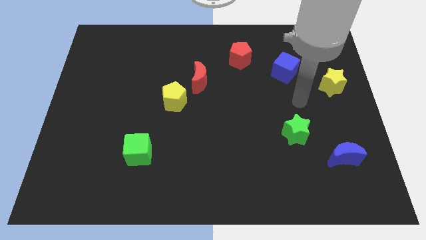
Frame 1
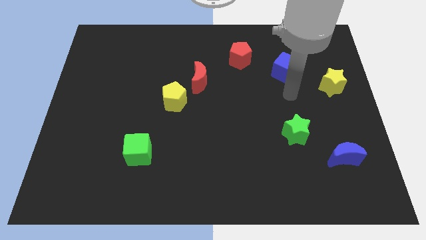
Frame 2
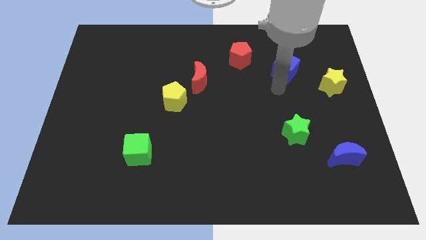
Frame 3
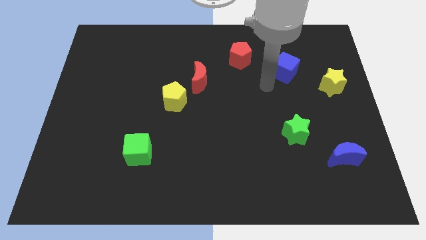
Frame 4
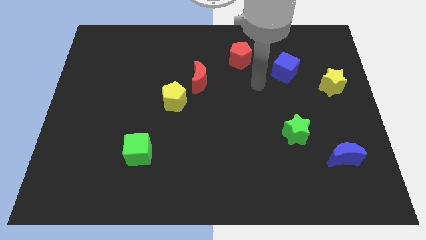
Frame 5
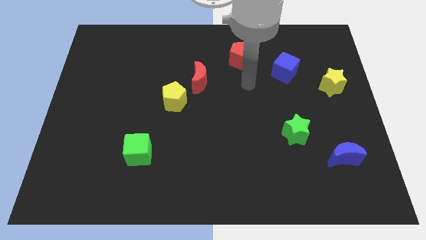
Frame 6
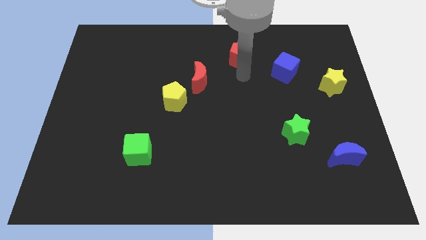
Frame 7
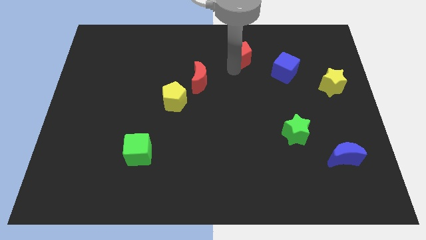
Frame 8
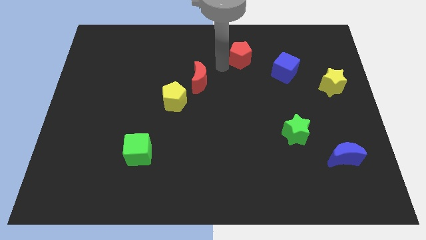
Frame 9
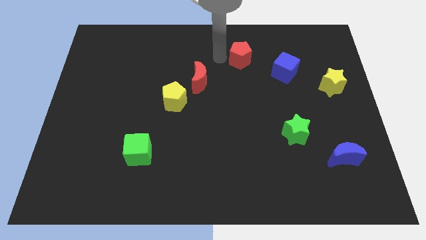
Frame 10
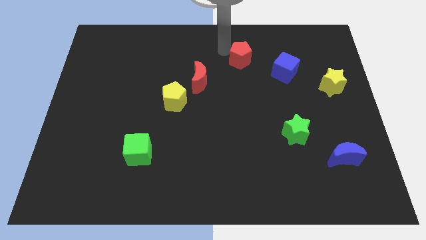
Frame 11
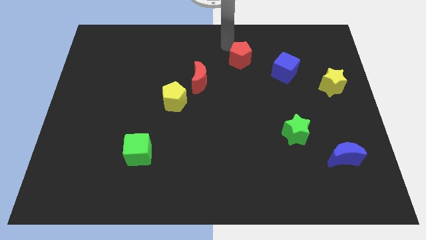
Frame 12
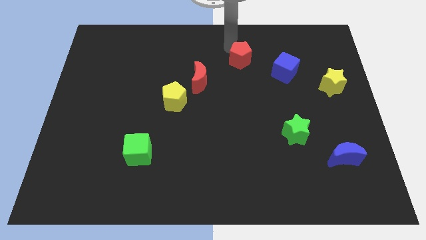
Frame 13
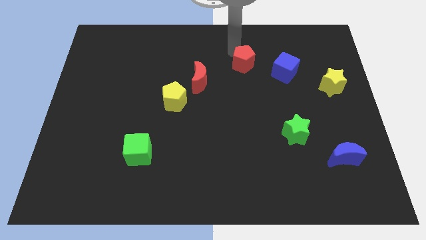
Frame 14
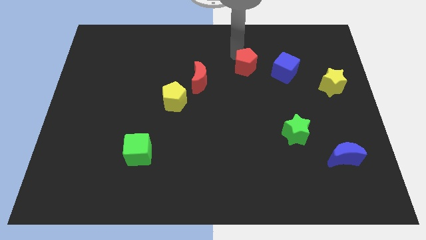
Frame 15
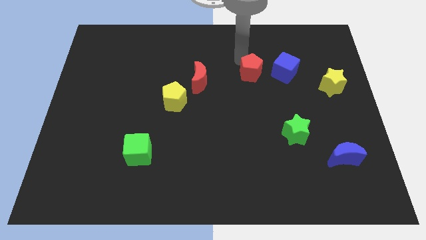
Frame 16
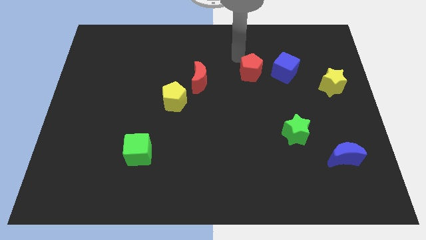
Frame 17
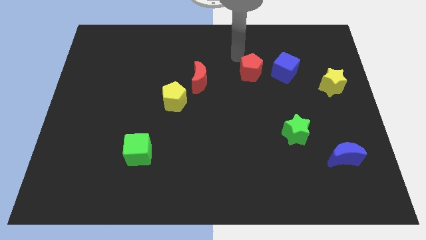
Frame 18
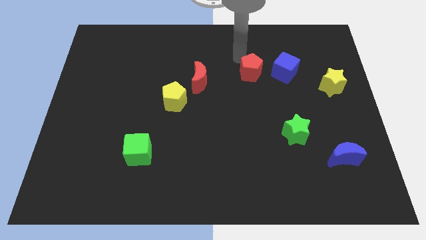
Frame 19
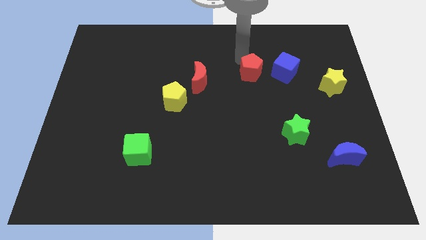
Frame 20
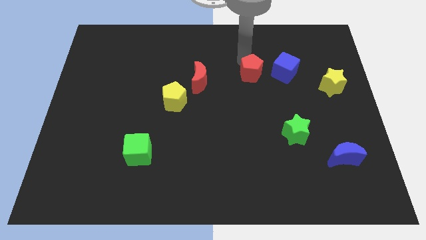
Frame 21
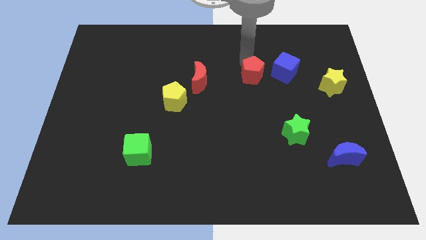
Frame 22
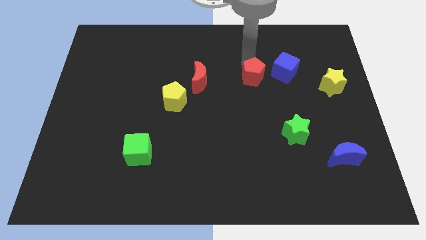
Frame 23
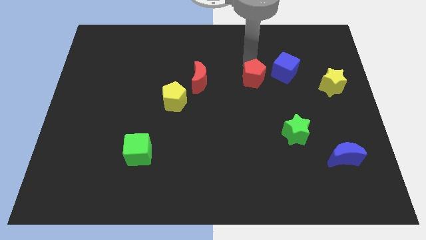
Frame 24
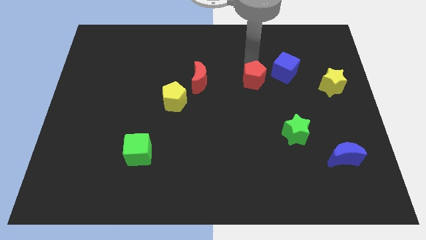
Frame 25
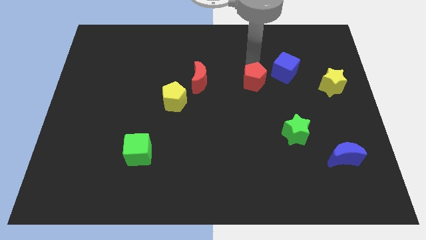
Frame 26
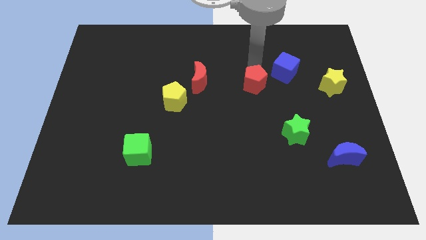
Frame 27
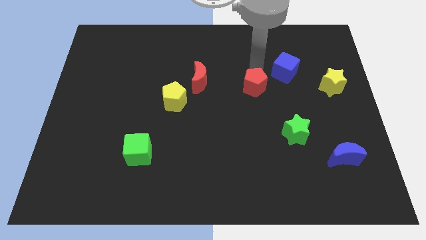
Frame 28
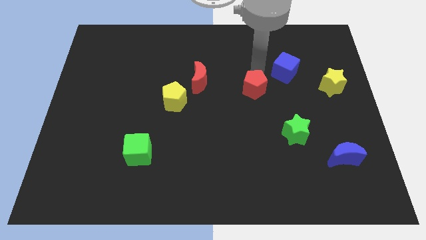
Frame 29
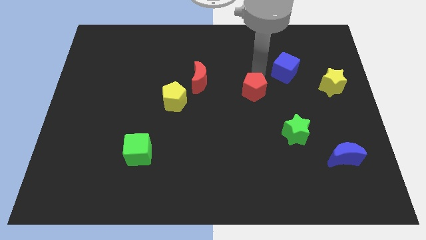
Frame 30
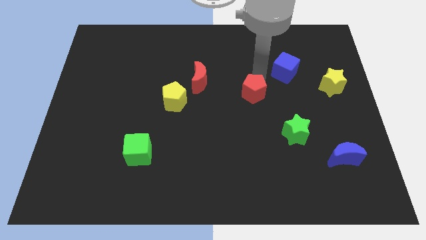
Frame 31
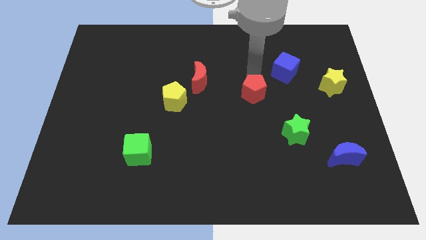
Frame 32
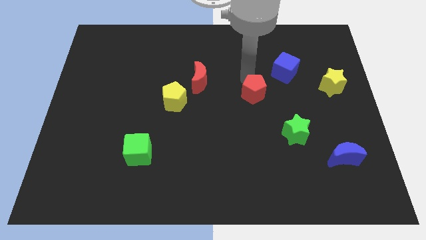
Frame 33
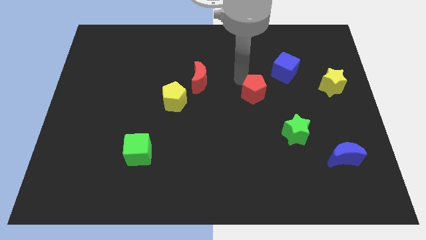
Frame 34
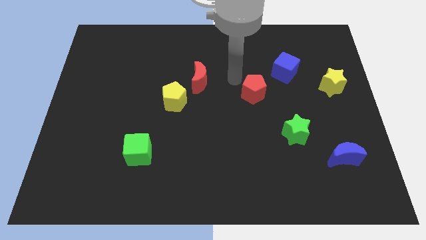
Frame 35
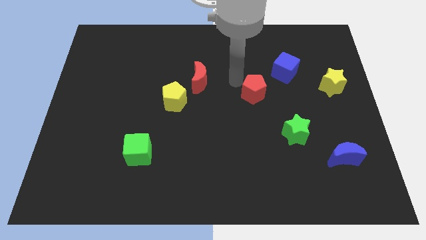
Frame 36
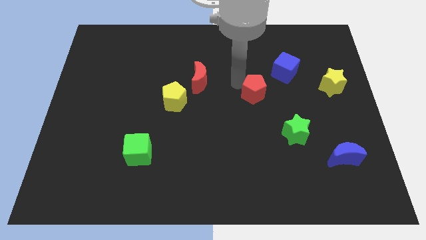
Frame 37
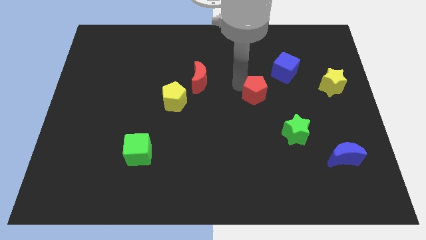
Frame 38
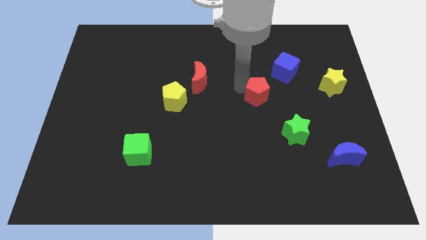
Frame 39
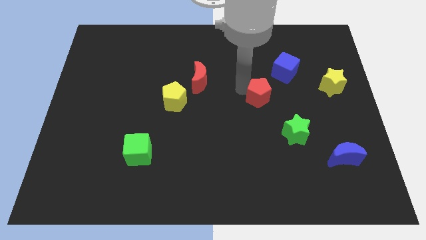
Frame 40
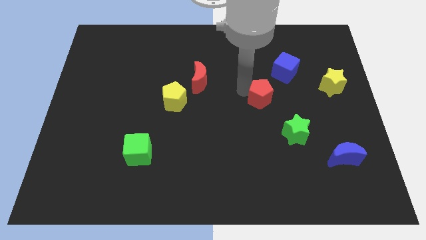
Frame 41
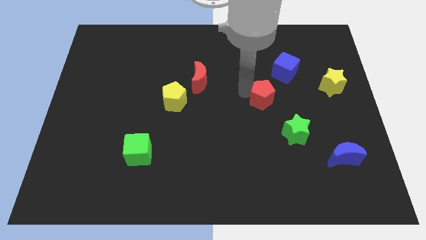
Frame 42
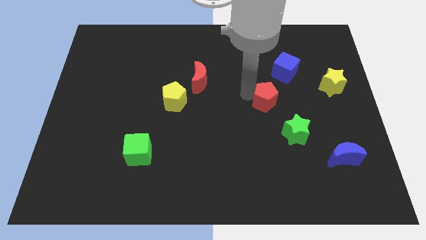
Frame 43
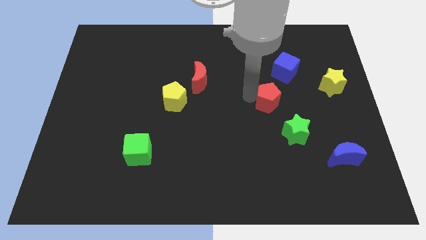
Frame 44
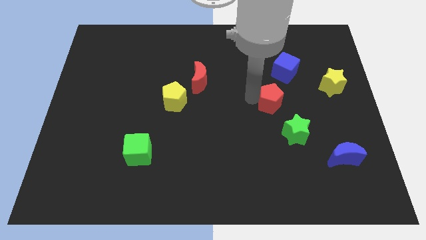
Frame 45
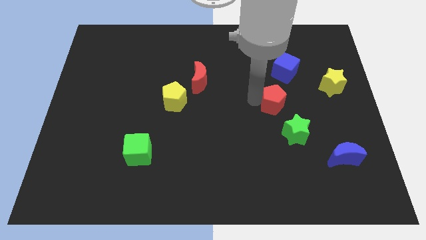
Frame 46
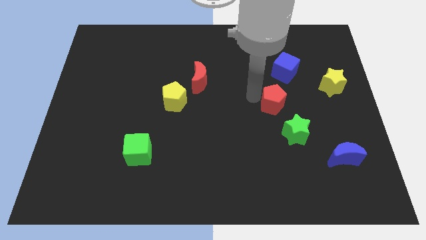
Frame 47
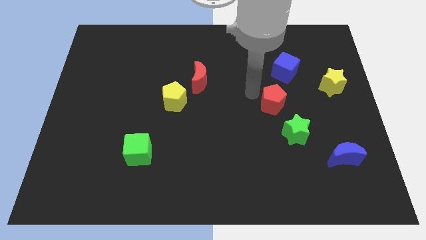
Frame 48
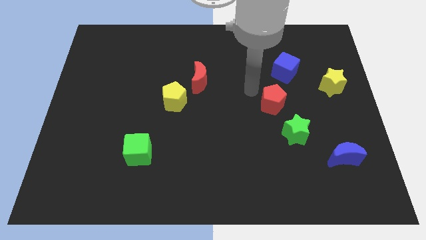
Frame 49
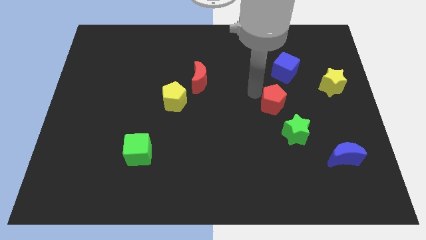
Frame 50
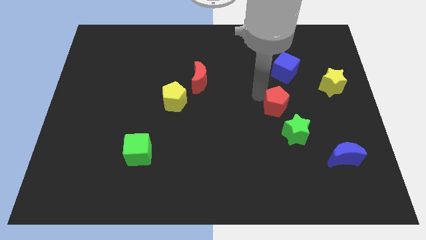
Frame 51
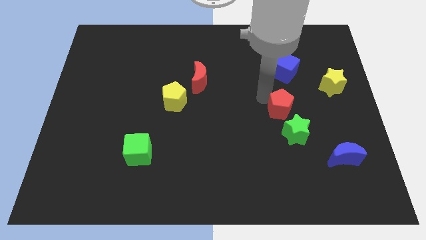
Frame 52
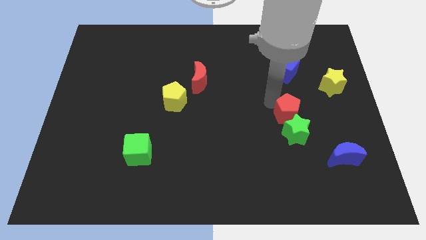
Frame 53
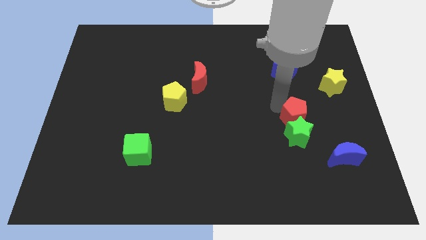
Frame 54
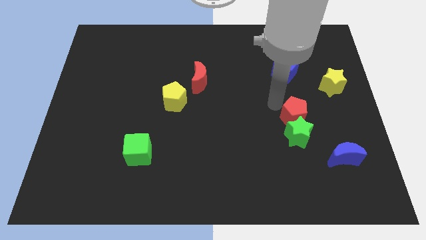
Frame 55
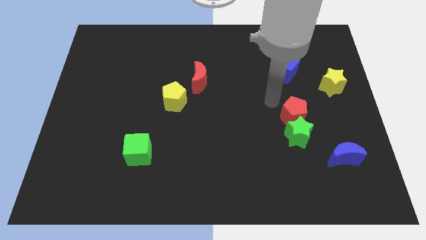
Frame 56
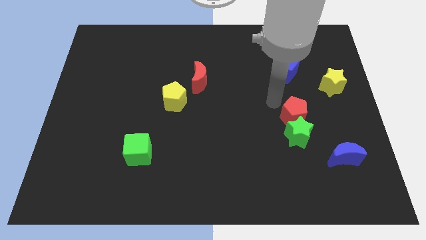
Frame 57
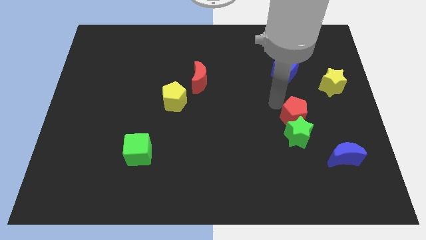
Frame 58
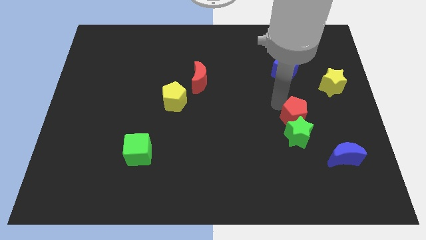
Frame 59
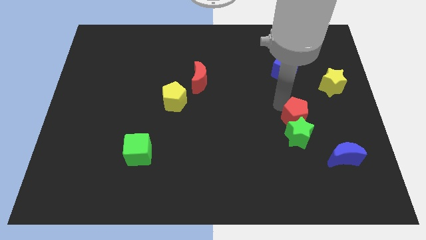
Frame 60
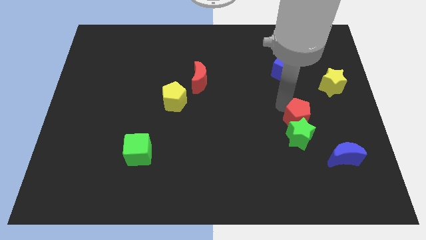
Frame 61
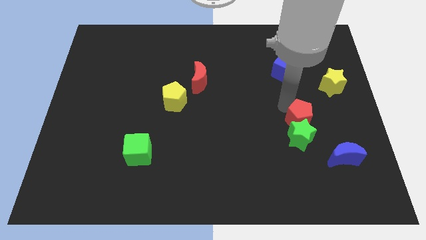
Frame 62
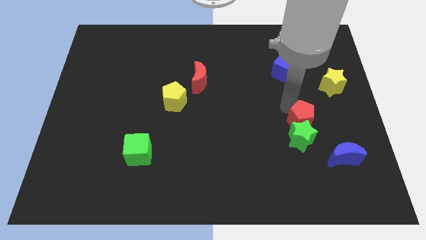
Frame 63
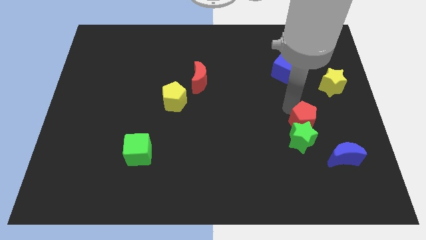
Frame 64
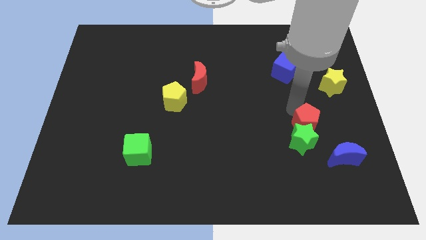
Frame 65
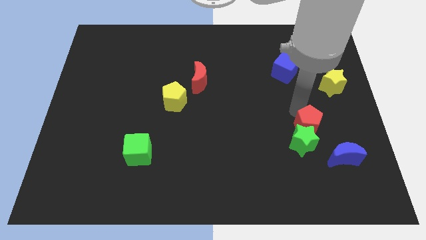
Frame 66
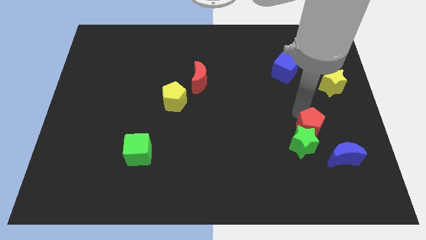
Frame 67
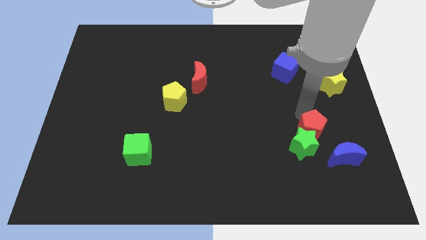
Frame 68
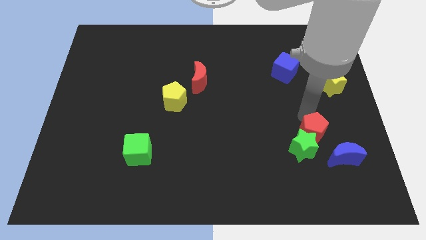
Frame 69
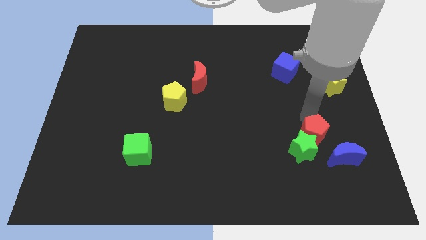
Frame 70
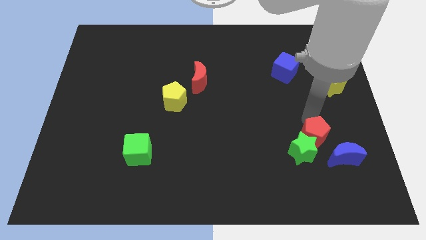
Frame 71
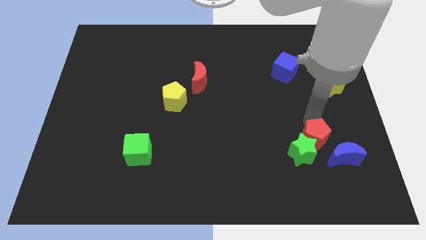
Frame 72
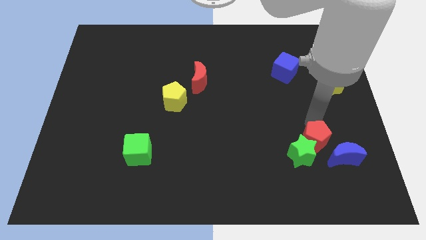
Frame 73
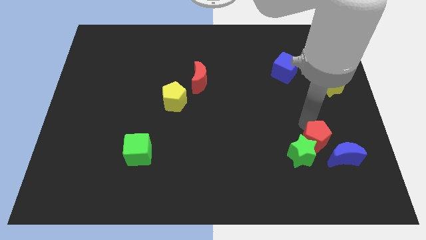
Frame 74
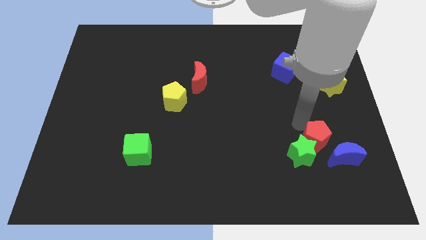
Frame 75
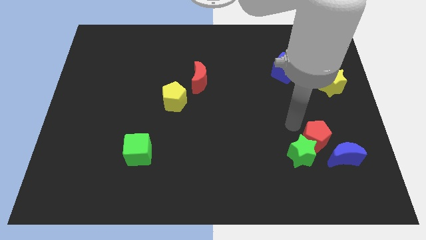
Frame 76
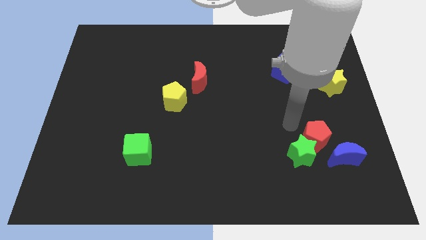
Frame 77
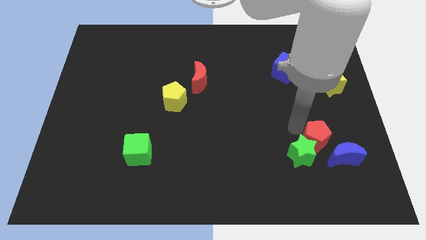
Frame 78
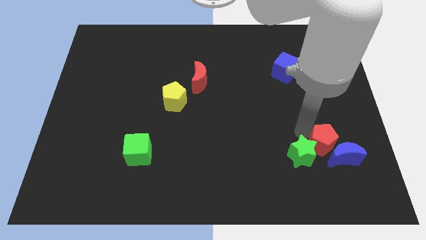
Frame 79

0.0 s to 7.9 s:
move the red pentagon to the blue moon
